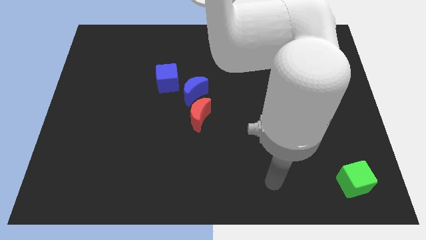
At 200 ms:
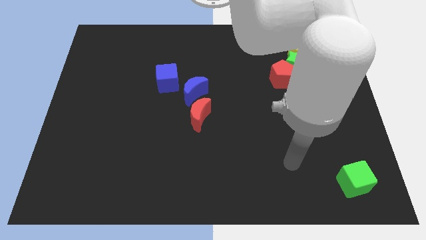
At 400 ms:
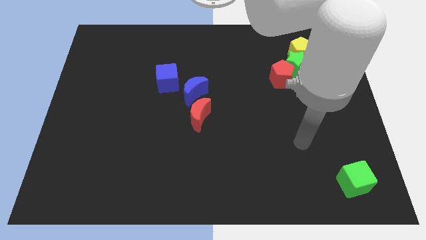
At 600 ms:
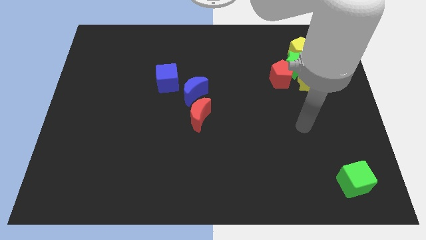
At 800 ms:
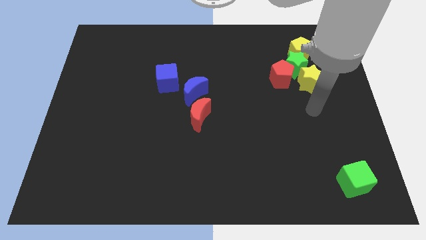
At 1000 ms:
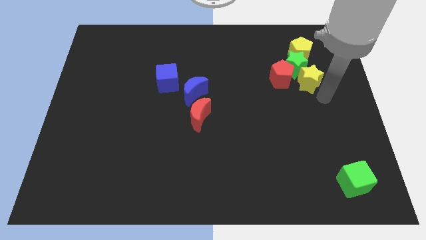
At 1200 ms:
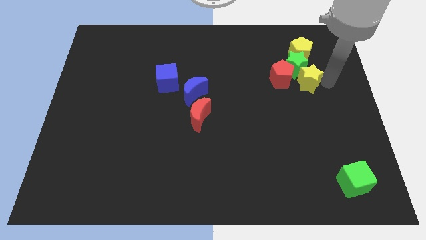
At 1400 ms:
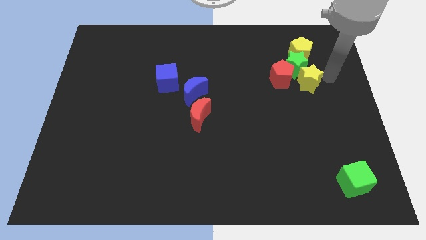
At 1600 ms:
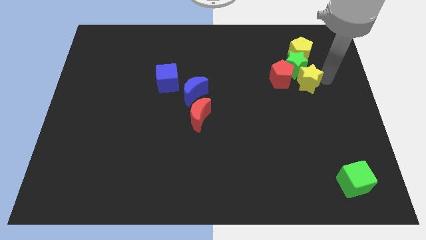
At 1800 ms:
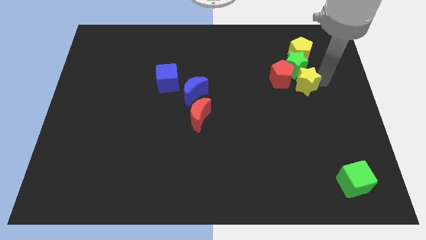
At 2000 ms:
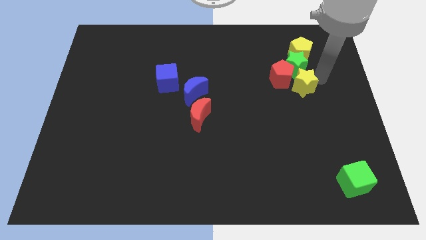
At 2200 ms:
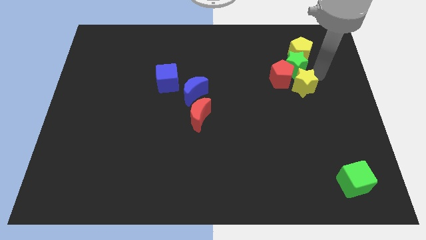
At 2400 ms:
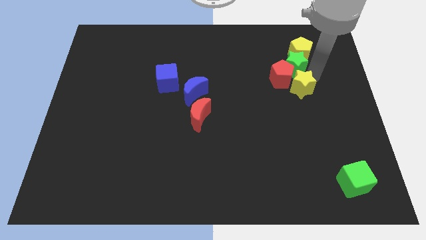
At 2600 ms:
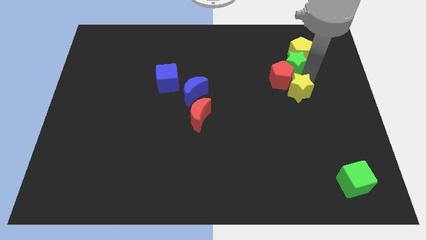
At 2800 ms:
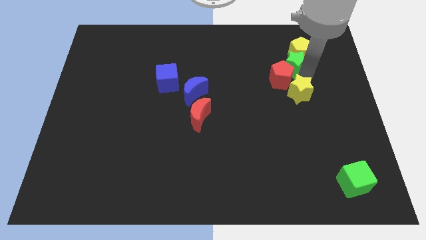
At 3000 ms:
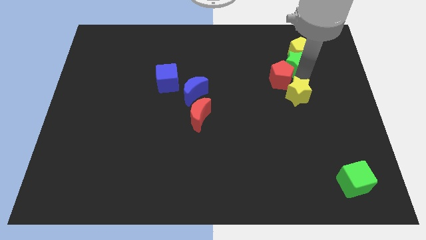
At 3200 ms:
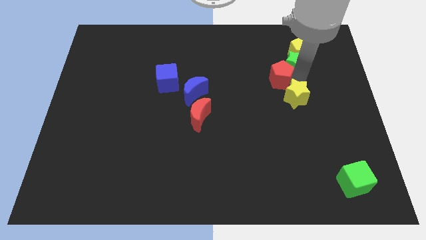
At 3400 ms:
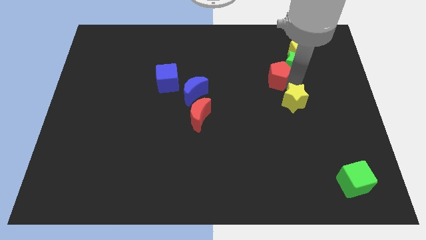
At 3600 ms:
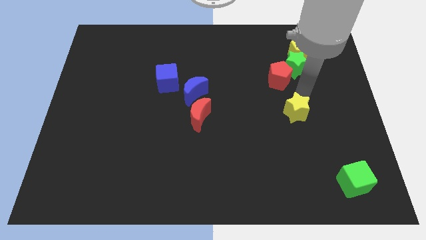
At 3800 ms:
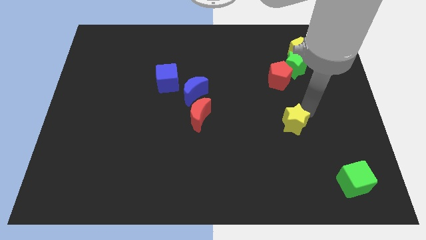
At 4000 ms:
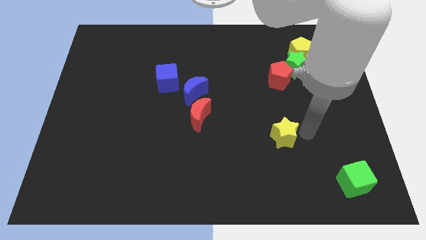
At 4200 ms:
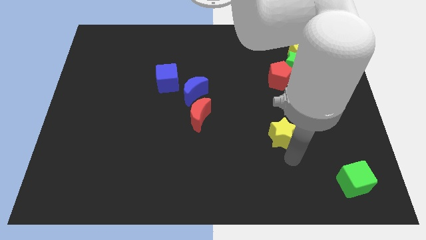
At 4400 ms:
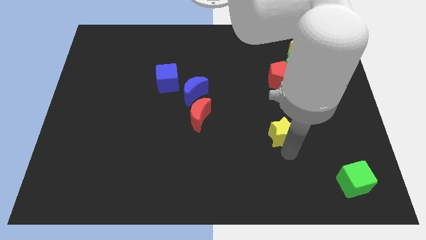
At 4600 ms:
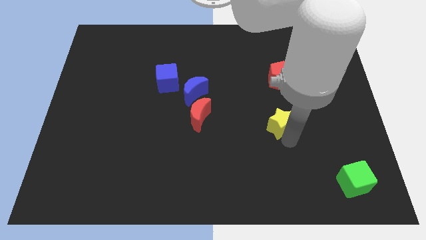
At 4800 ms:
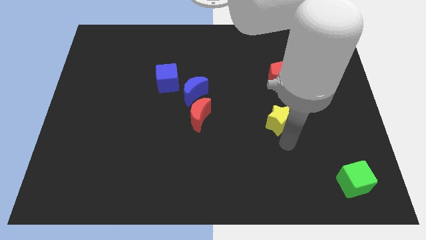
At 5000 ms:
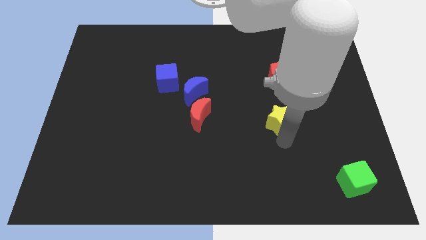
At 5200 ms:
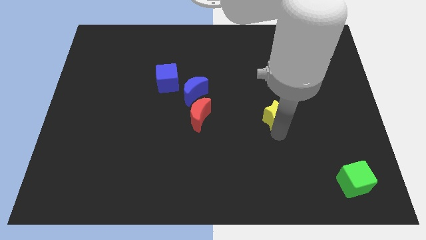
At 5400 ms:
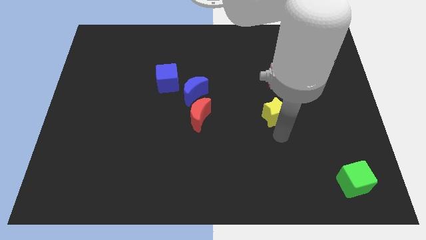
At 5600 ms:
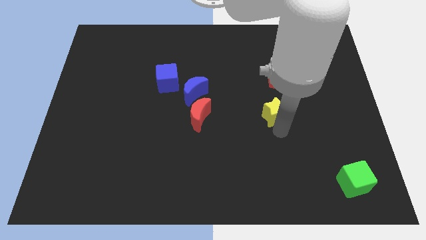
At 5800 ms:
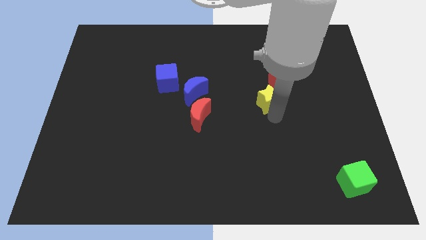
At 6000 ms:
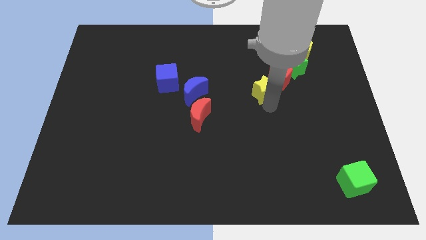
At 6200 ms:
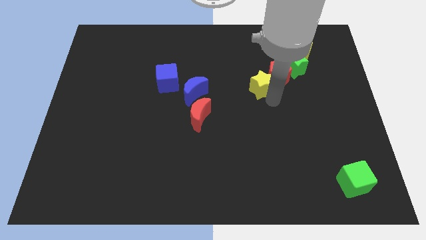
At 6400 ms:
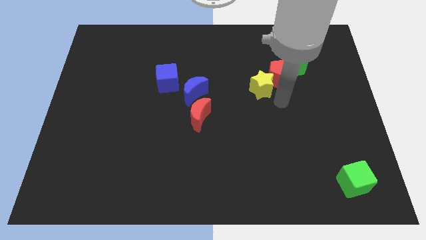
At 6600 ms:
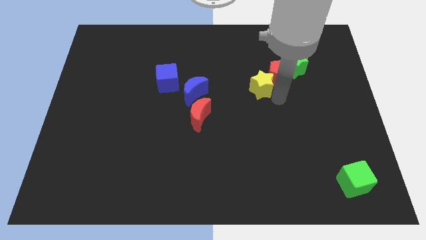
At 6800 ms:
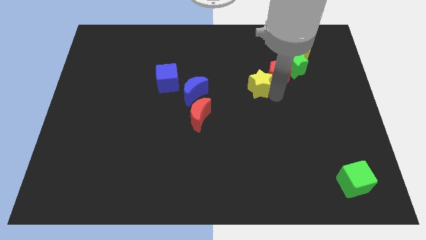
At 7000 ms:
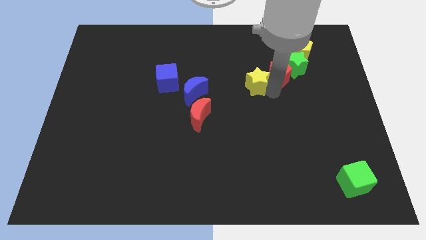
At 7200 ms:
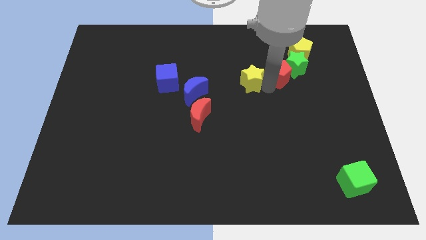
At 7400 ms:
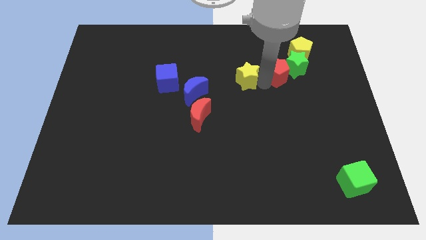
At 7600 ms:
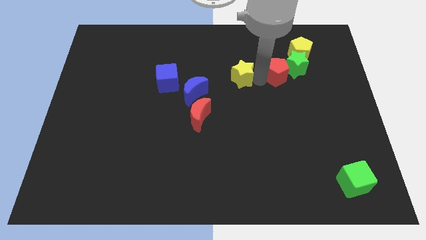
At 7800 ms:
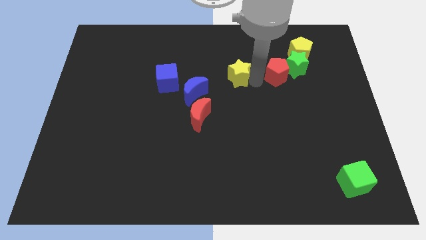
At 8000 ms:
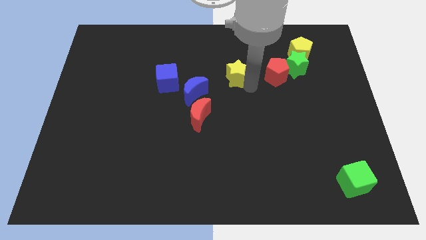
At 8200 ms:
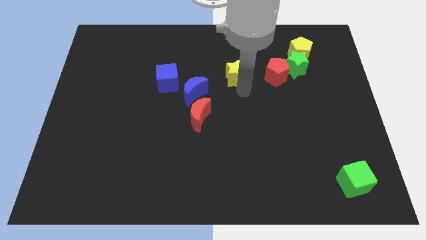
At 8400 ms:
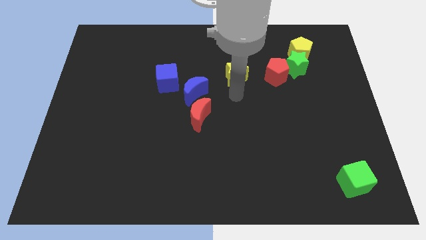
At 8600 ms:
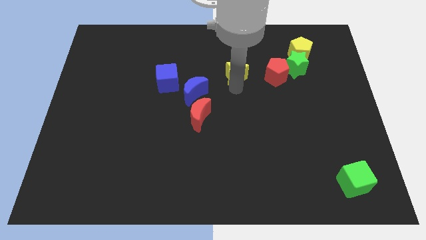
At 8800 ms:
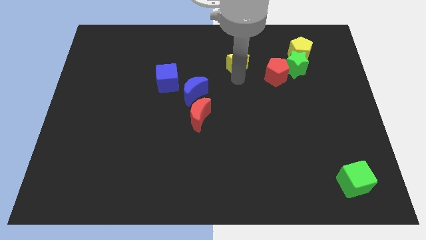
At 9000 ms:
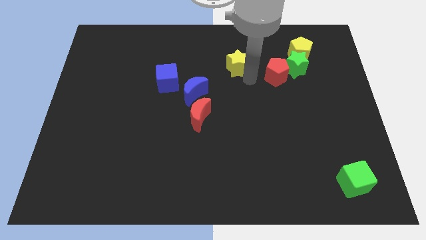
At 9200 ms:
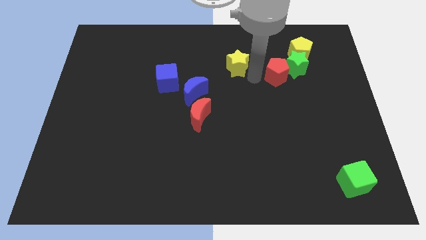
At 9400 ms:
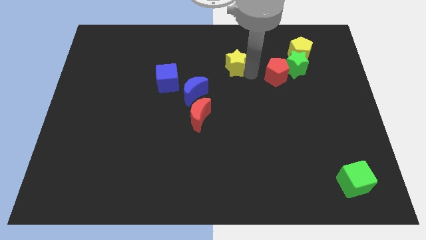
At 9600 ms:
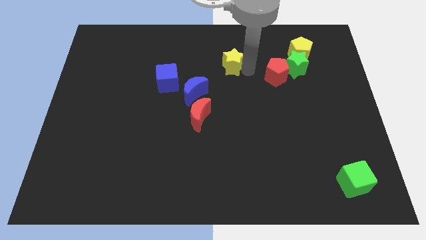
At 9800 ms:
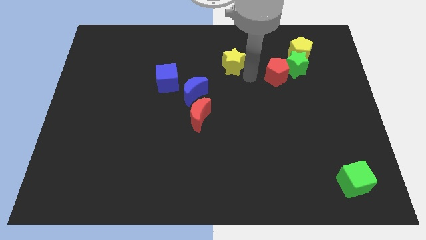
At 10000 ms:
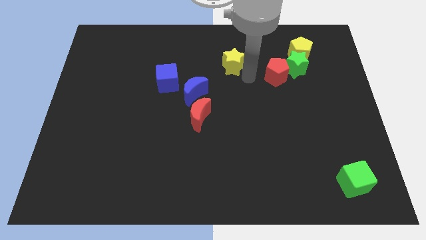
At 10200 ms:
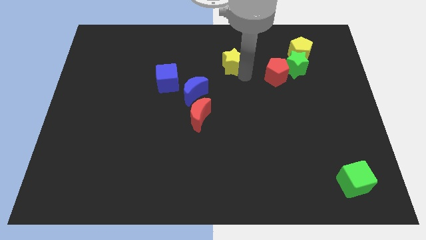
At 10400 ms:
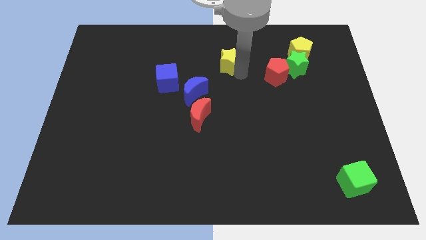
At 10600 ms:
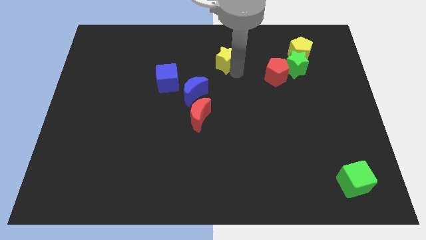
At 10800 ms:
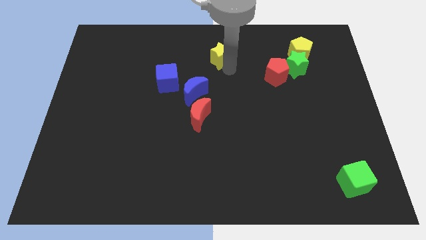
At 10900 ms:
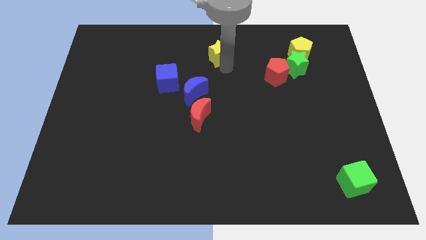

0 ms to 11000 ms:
push the yellow star to the top side
